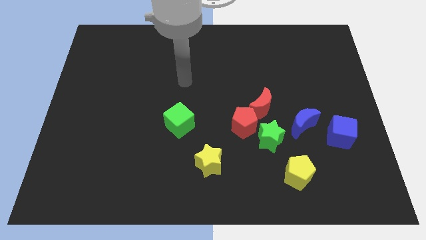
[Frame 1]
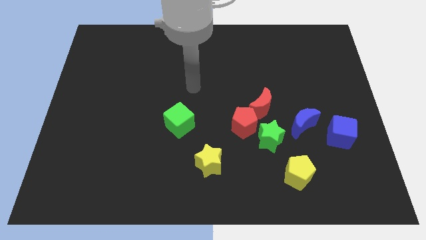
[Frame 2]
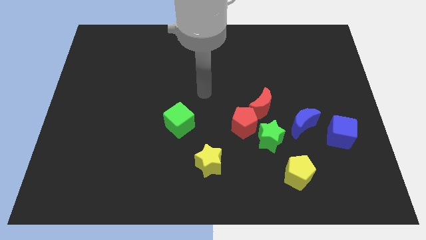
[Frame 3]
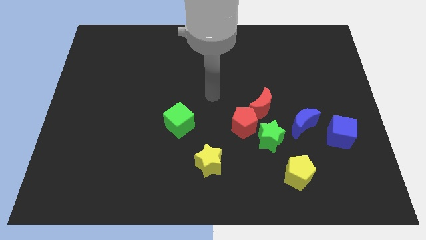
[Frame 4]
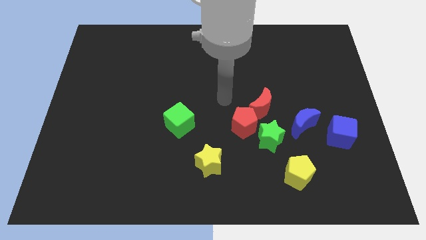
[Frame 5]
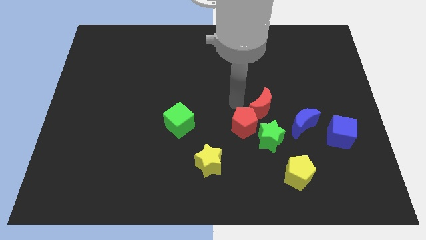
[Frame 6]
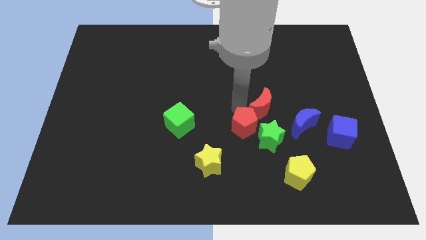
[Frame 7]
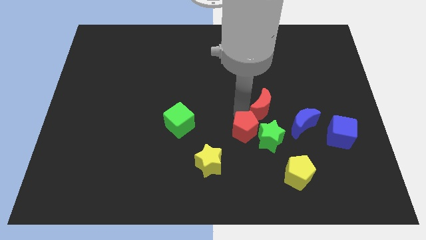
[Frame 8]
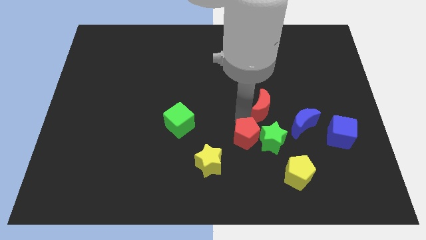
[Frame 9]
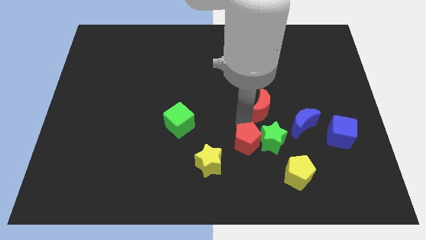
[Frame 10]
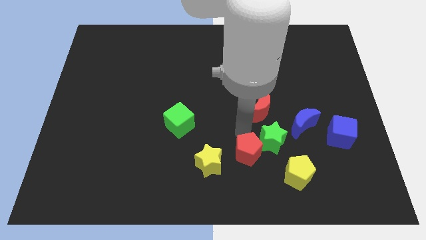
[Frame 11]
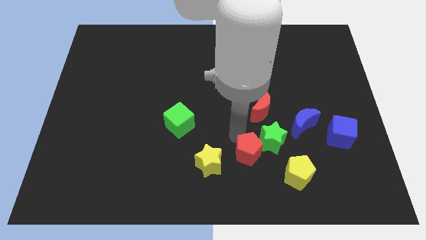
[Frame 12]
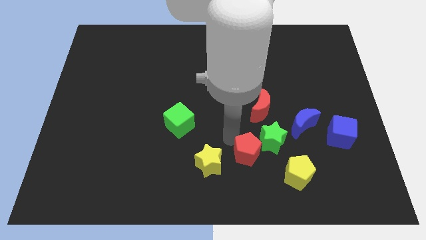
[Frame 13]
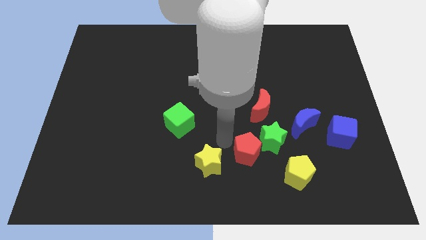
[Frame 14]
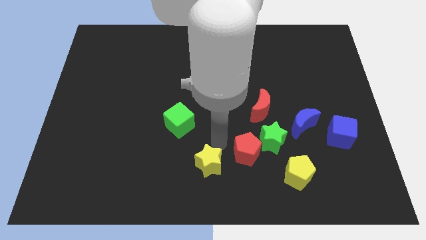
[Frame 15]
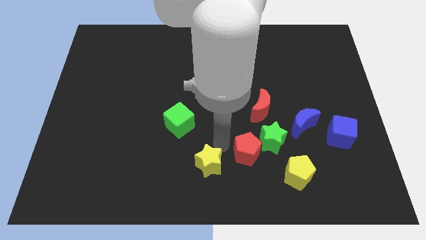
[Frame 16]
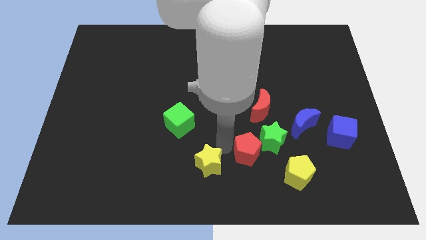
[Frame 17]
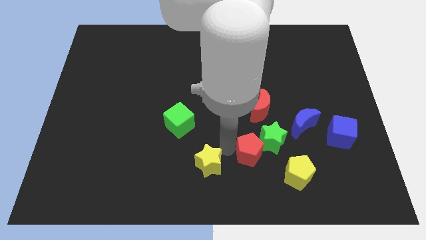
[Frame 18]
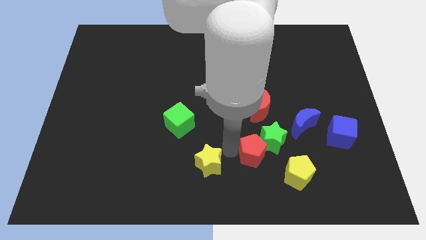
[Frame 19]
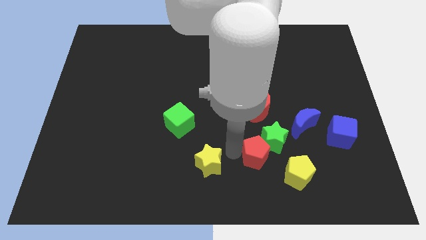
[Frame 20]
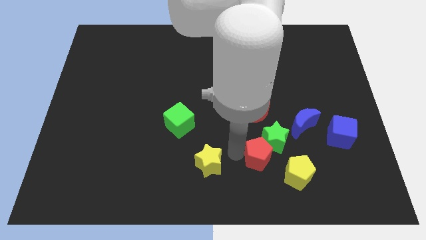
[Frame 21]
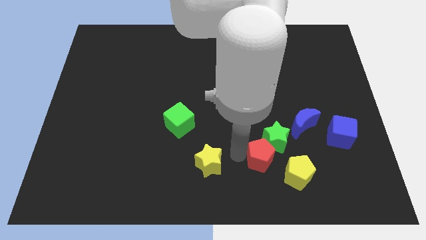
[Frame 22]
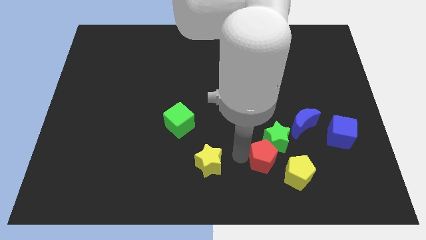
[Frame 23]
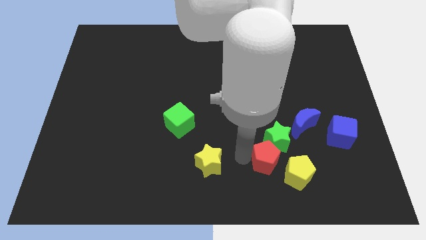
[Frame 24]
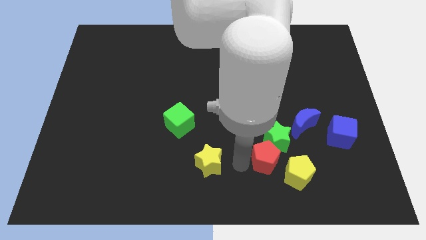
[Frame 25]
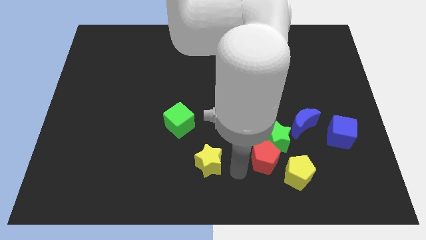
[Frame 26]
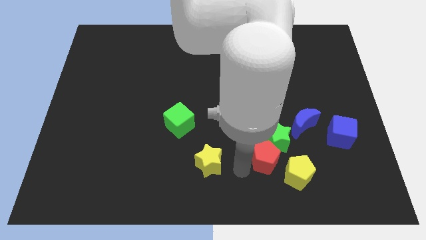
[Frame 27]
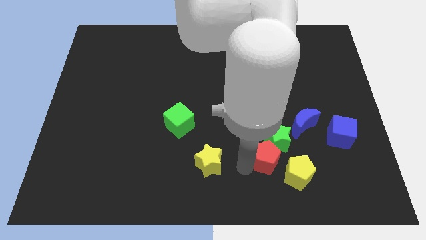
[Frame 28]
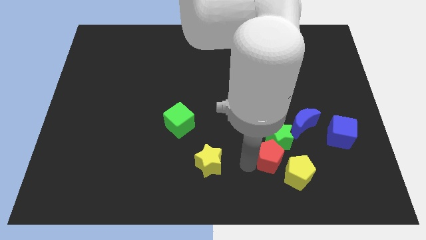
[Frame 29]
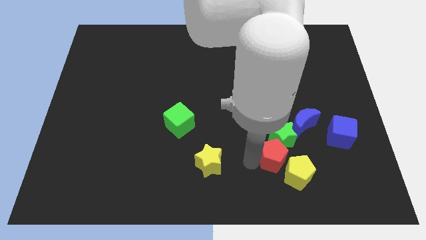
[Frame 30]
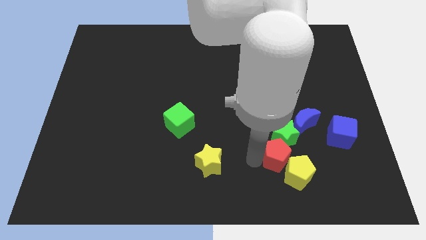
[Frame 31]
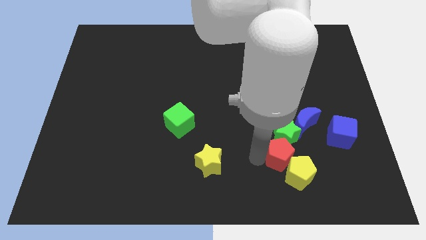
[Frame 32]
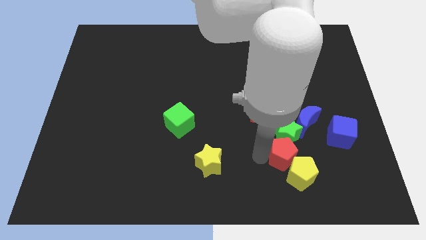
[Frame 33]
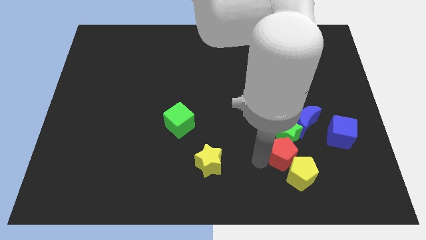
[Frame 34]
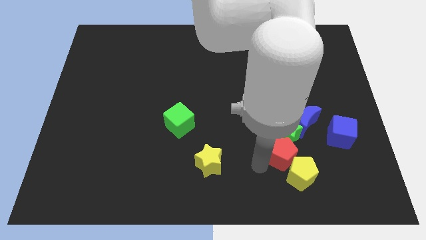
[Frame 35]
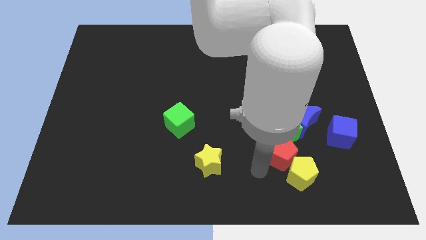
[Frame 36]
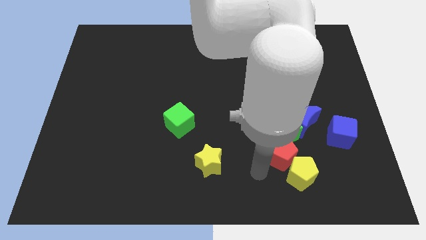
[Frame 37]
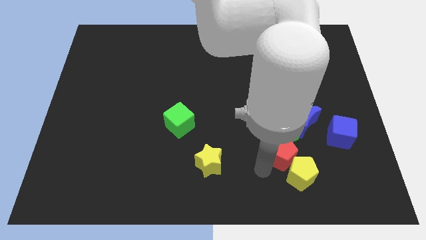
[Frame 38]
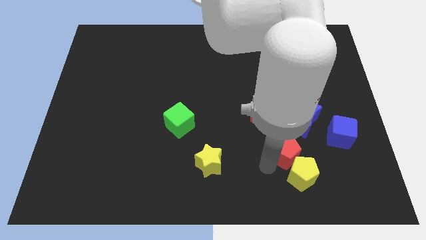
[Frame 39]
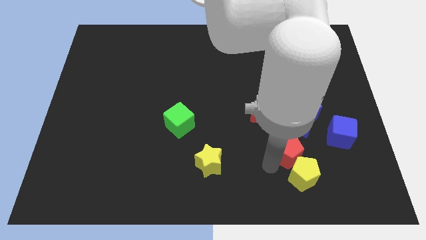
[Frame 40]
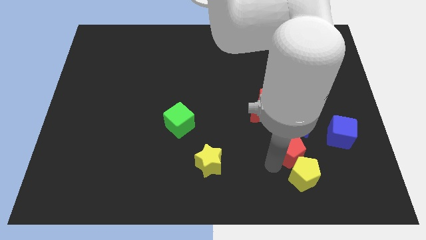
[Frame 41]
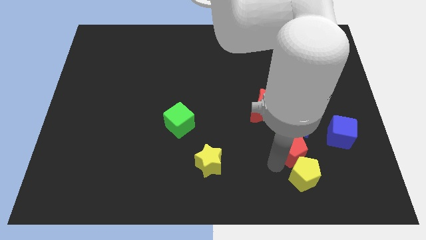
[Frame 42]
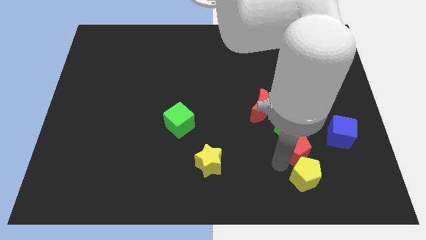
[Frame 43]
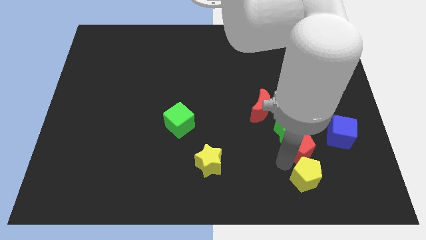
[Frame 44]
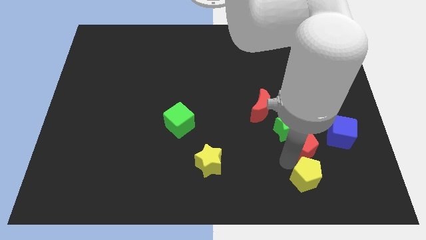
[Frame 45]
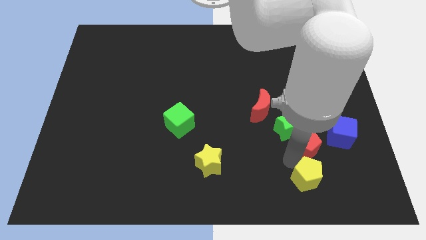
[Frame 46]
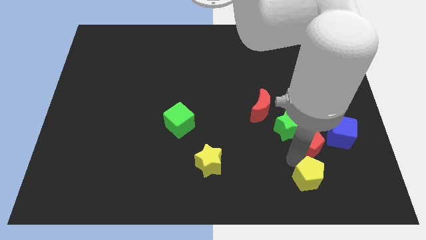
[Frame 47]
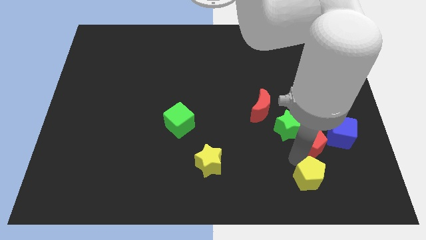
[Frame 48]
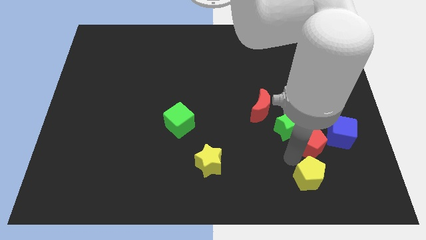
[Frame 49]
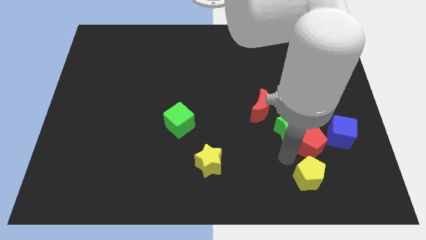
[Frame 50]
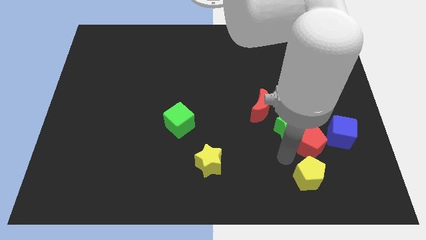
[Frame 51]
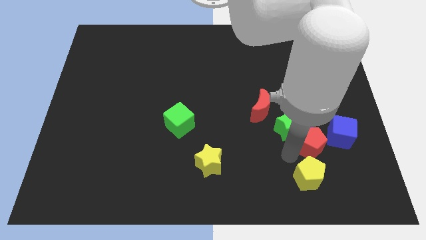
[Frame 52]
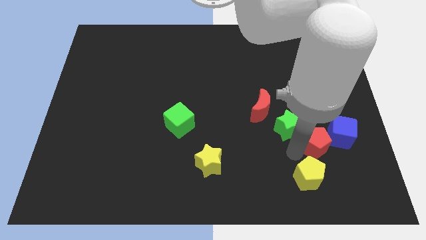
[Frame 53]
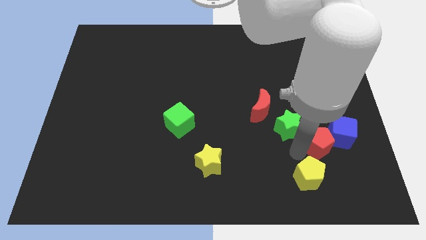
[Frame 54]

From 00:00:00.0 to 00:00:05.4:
move the red pentagon next to the blue cube
